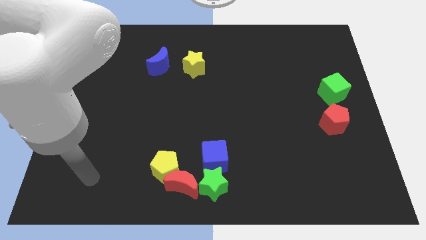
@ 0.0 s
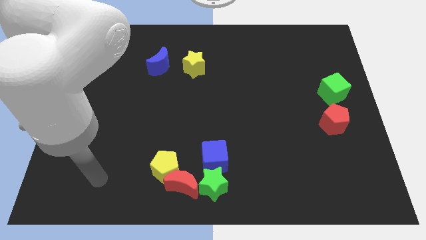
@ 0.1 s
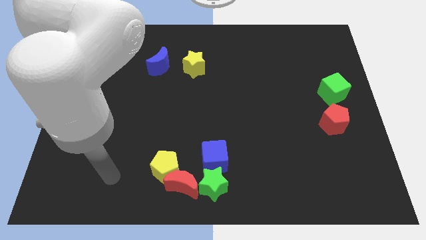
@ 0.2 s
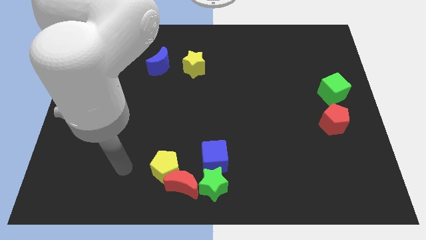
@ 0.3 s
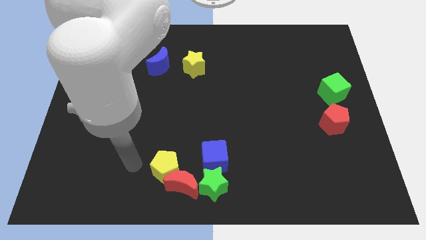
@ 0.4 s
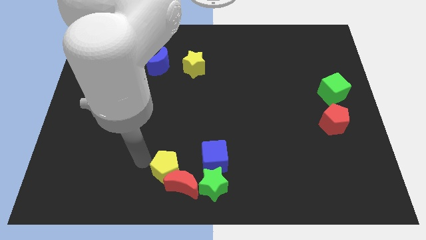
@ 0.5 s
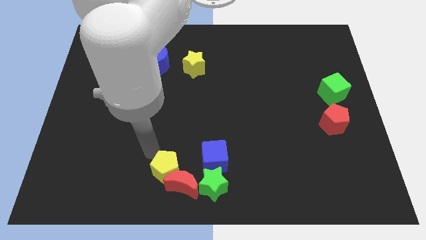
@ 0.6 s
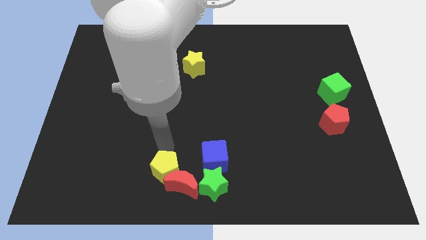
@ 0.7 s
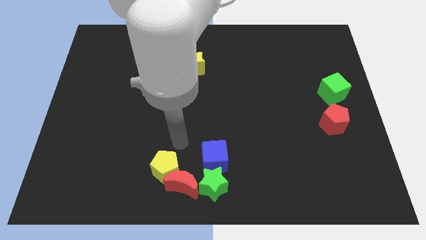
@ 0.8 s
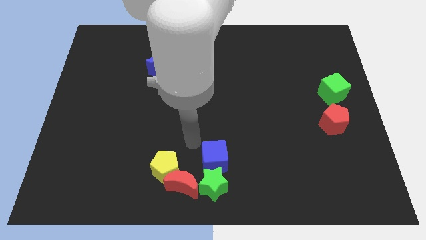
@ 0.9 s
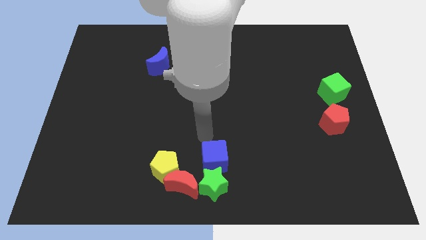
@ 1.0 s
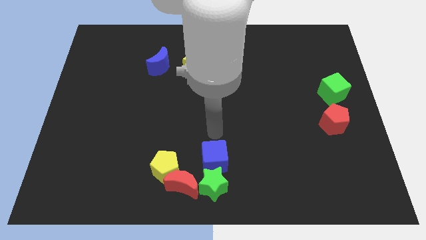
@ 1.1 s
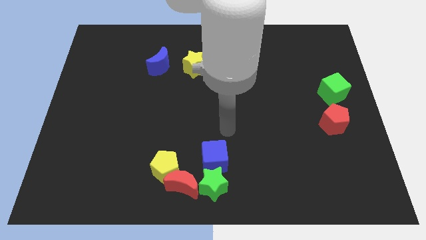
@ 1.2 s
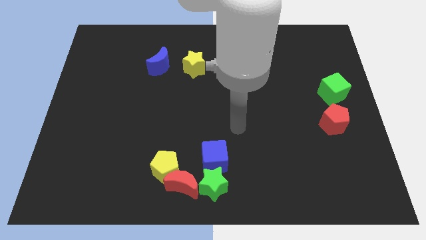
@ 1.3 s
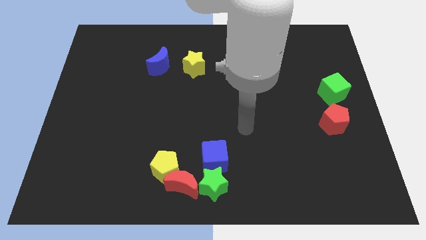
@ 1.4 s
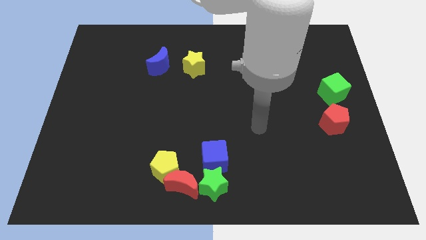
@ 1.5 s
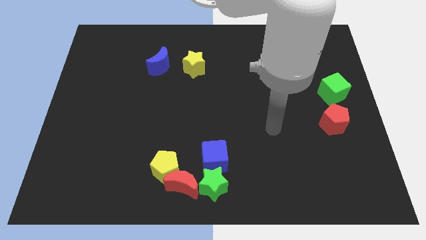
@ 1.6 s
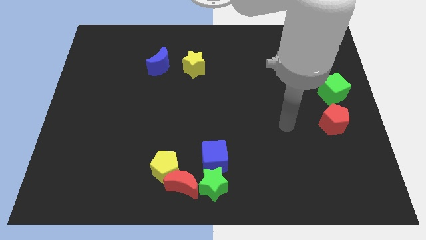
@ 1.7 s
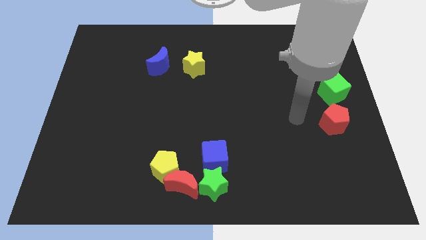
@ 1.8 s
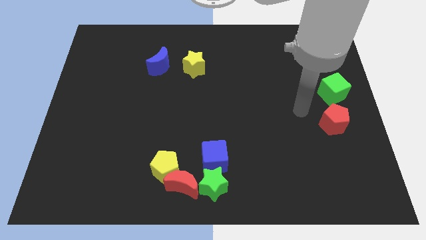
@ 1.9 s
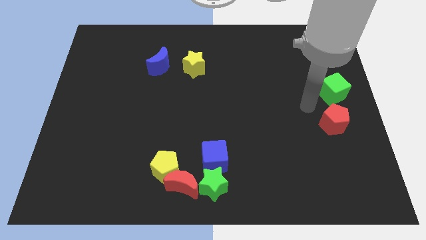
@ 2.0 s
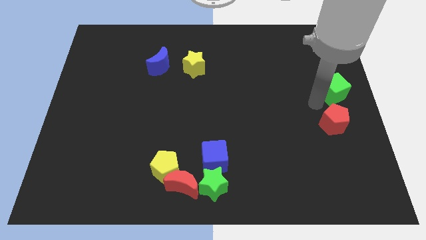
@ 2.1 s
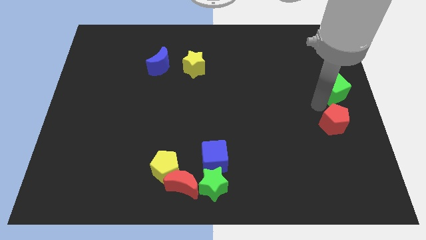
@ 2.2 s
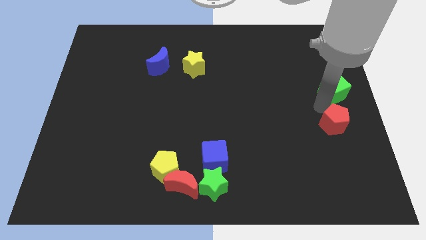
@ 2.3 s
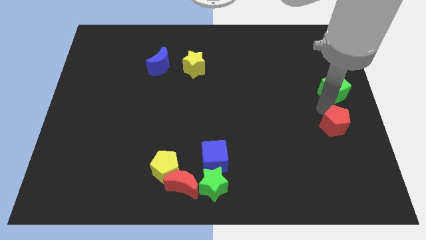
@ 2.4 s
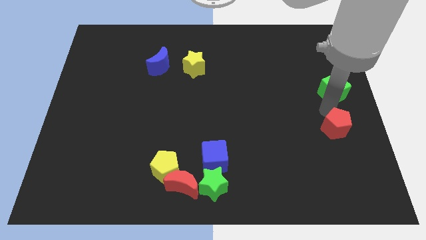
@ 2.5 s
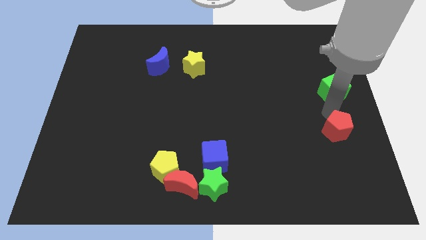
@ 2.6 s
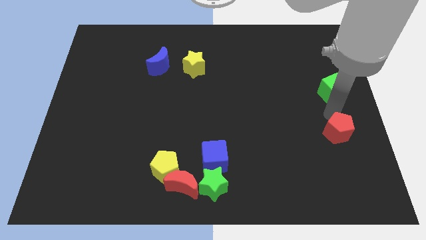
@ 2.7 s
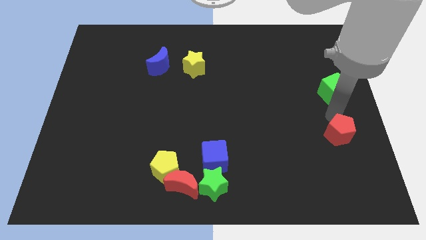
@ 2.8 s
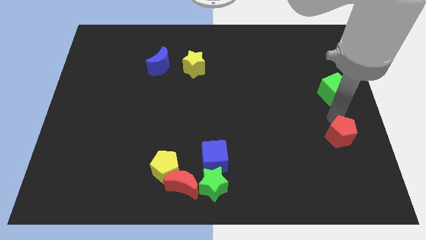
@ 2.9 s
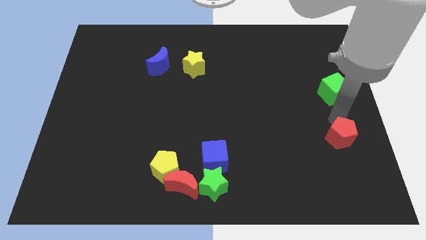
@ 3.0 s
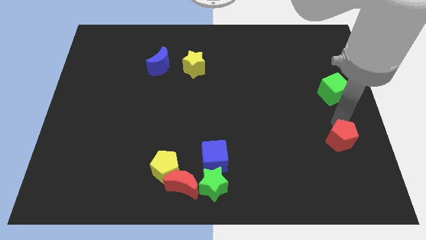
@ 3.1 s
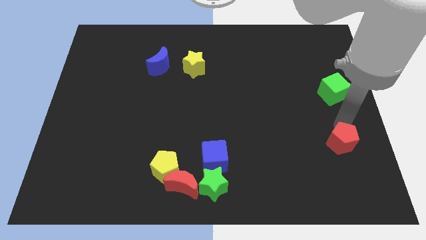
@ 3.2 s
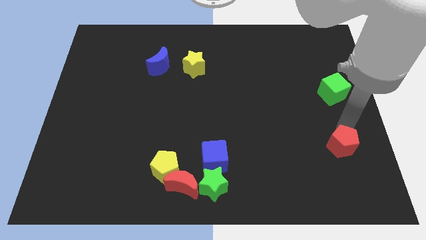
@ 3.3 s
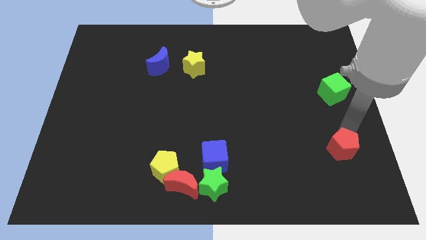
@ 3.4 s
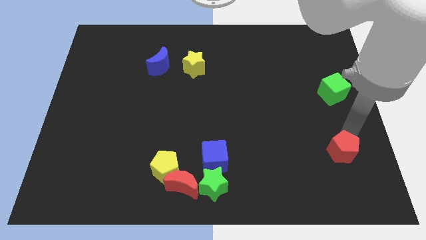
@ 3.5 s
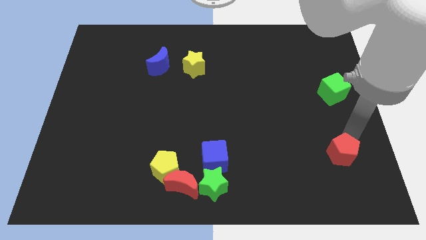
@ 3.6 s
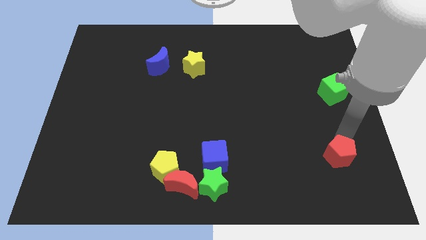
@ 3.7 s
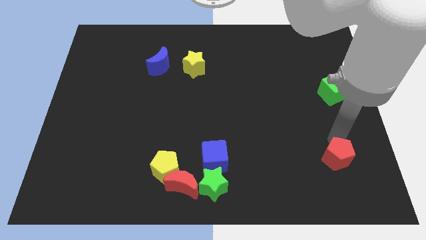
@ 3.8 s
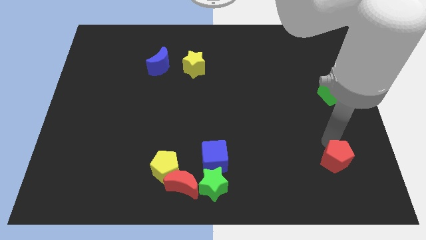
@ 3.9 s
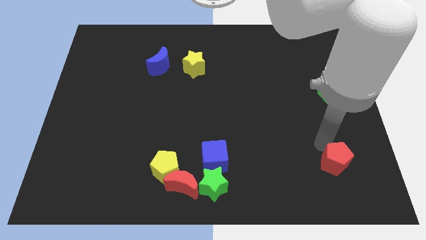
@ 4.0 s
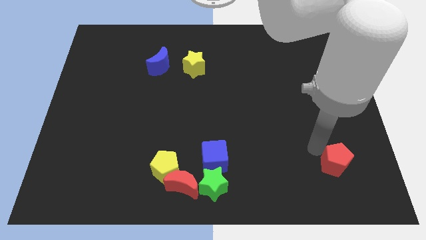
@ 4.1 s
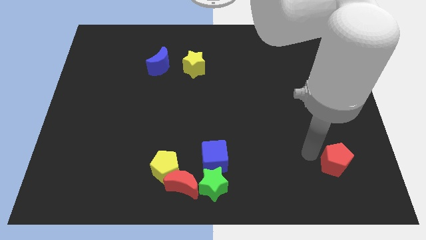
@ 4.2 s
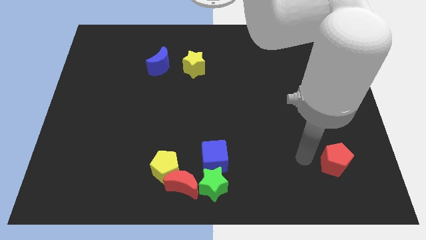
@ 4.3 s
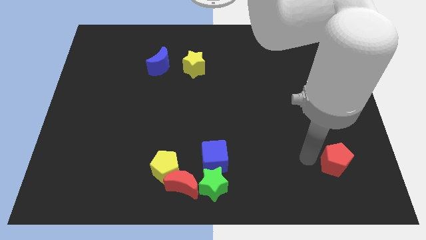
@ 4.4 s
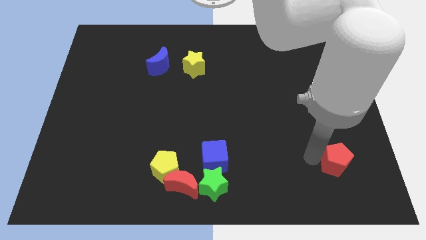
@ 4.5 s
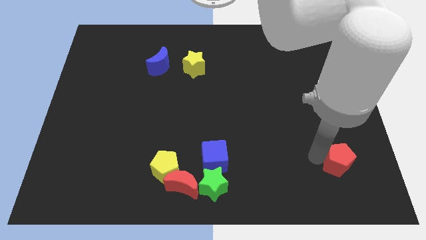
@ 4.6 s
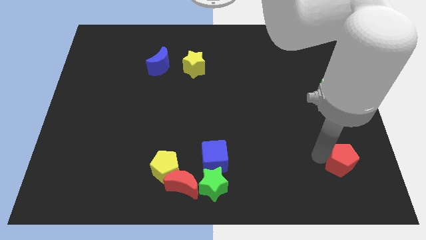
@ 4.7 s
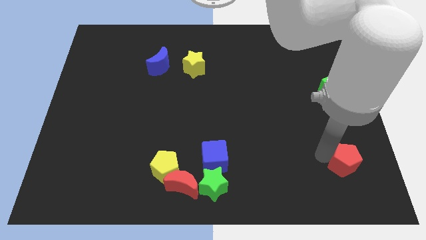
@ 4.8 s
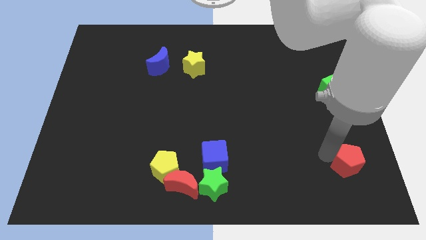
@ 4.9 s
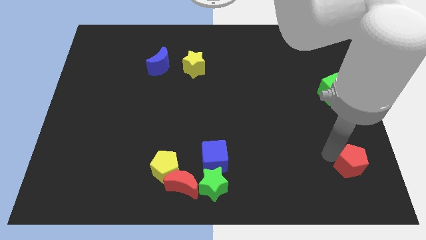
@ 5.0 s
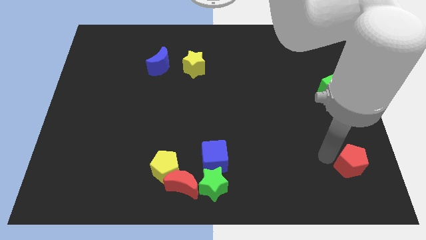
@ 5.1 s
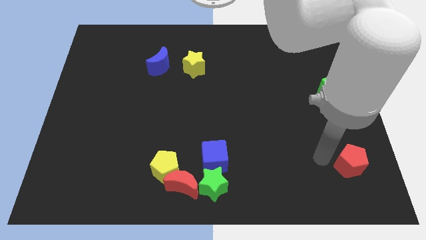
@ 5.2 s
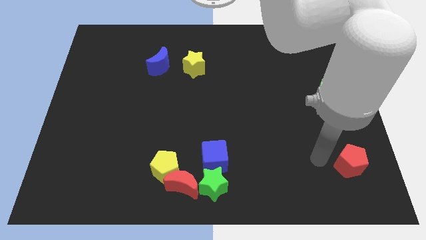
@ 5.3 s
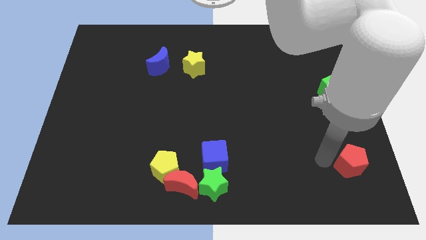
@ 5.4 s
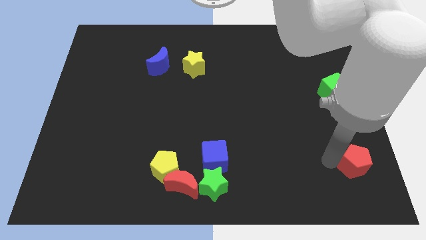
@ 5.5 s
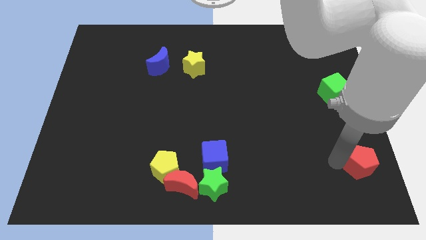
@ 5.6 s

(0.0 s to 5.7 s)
slide the red pentagon to the lower right corner

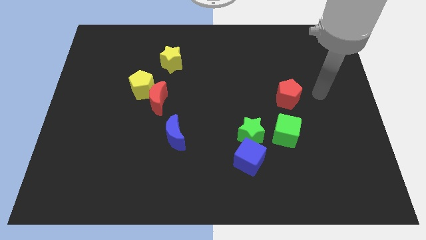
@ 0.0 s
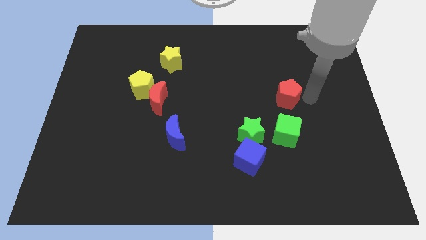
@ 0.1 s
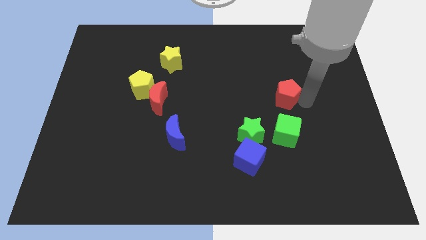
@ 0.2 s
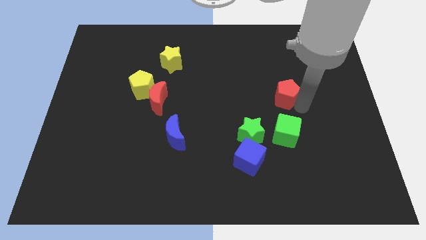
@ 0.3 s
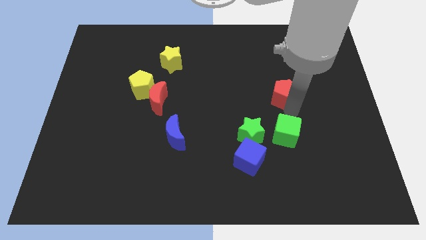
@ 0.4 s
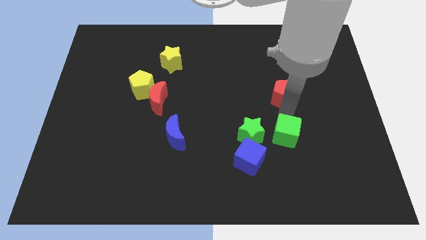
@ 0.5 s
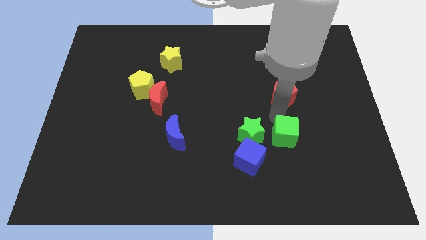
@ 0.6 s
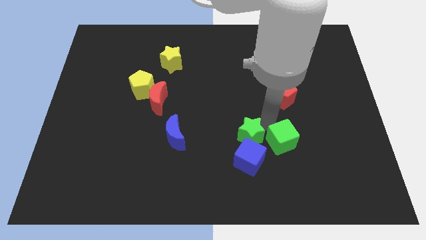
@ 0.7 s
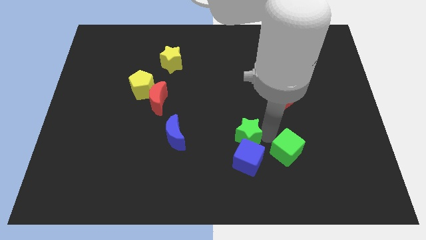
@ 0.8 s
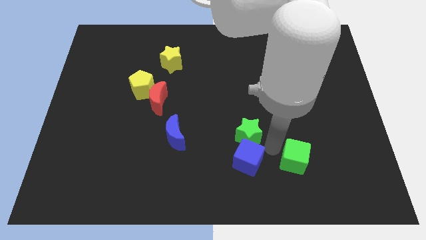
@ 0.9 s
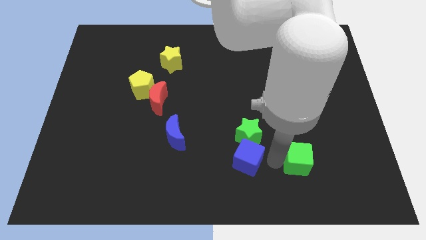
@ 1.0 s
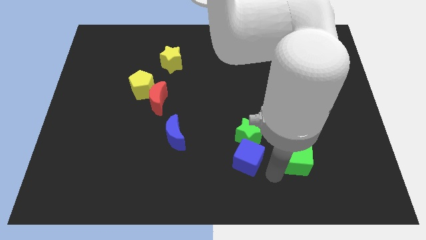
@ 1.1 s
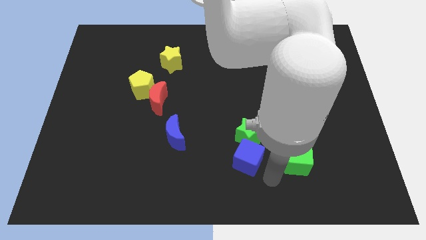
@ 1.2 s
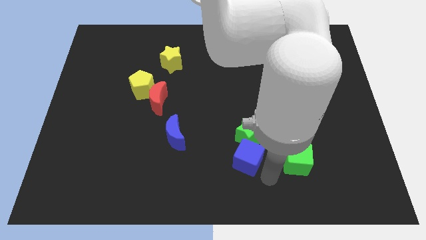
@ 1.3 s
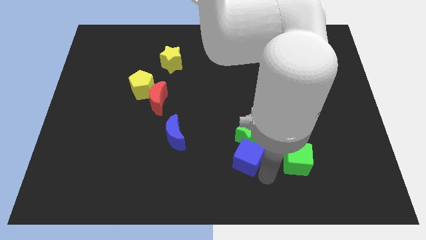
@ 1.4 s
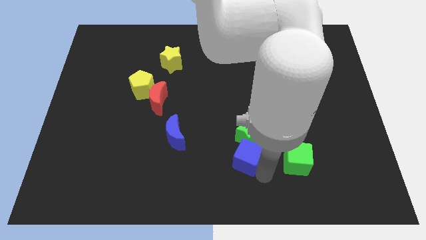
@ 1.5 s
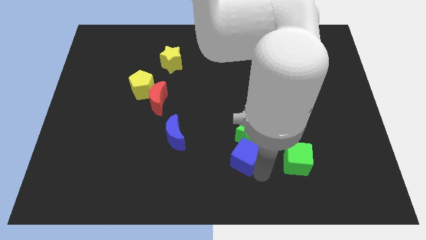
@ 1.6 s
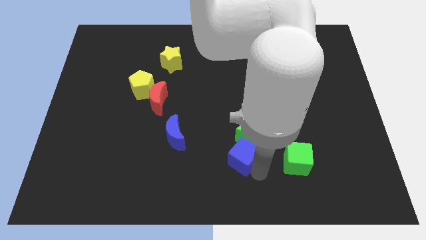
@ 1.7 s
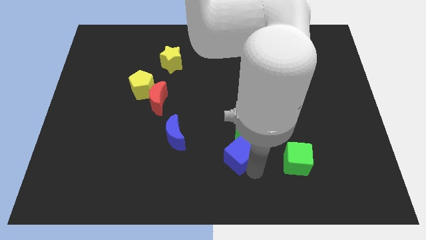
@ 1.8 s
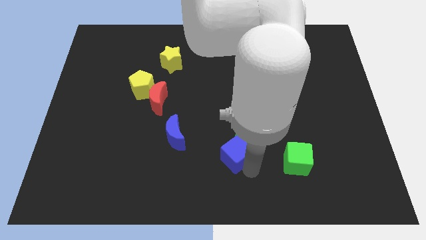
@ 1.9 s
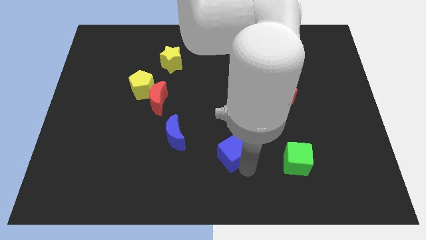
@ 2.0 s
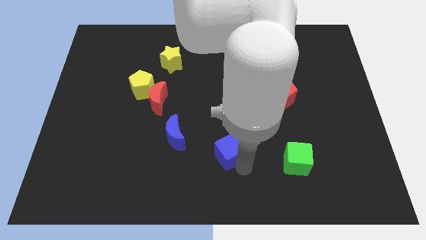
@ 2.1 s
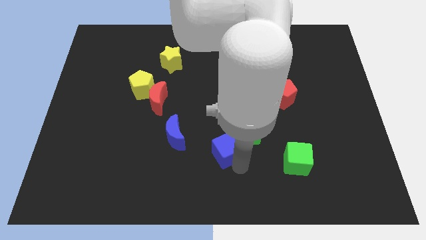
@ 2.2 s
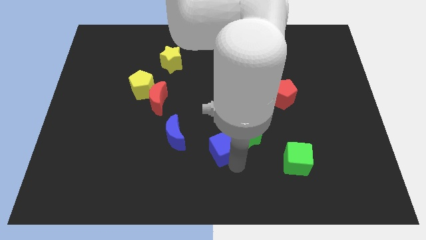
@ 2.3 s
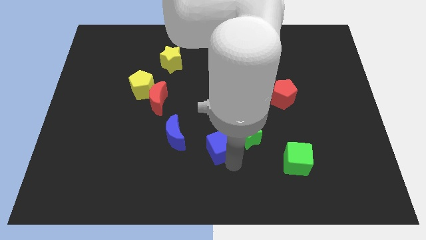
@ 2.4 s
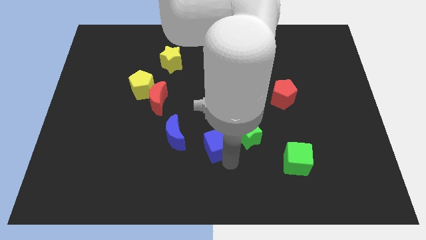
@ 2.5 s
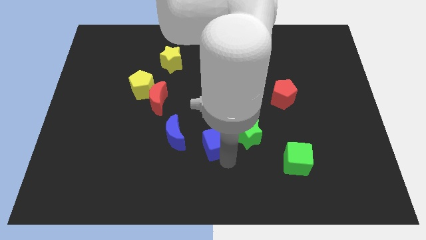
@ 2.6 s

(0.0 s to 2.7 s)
move the blue cube to the middle of the board
